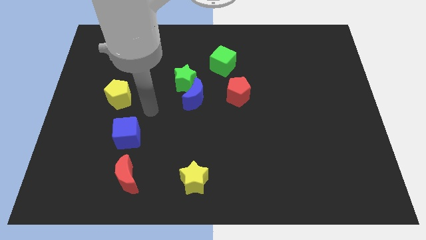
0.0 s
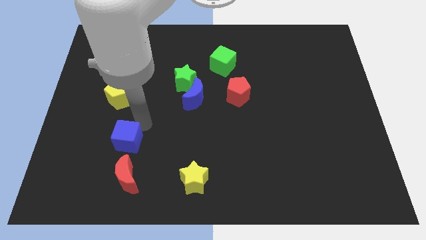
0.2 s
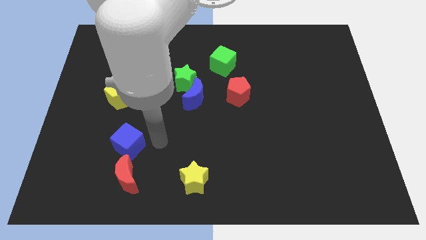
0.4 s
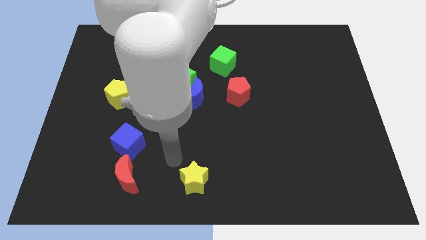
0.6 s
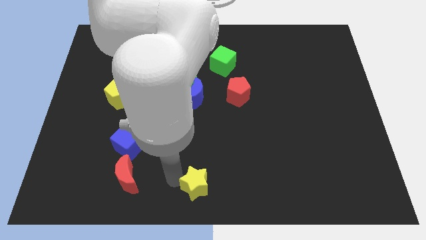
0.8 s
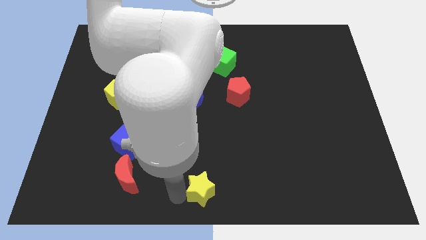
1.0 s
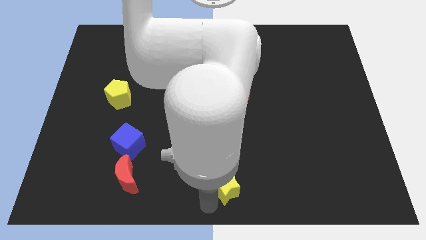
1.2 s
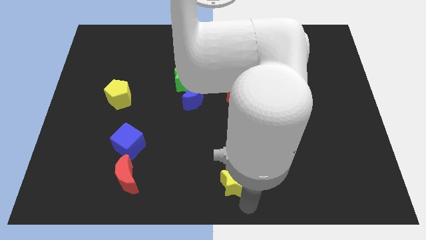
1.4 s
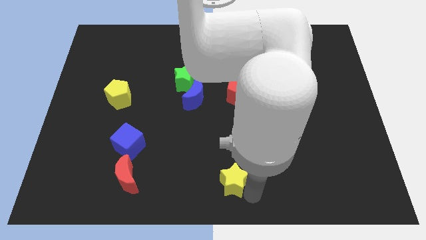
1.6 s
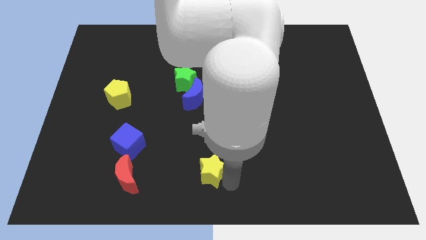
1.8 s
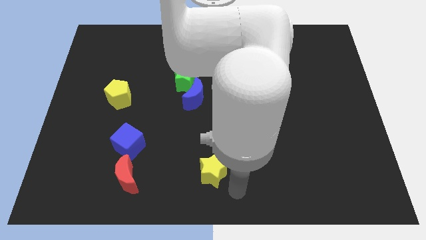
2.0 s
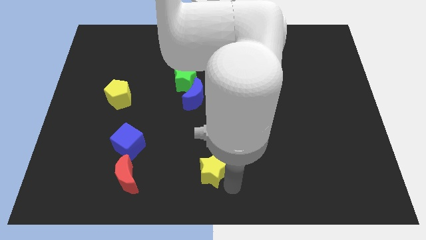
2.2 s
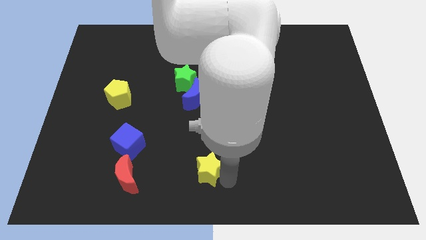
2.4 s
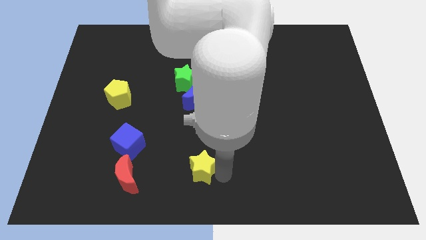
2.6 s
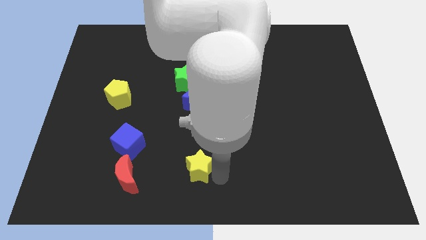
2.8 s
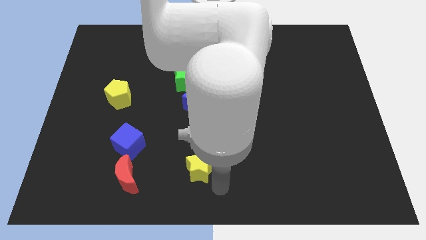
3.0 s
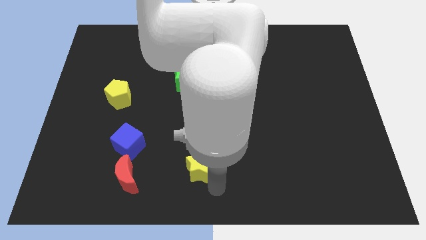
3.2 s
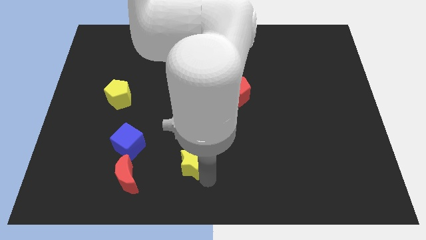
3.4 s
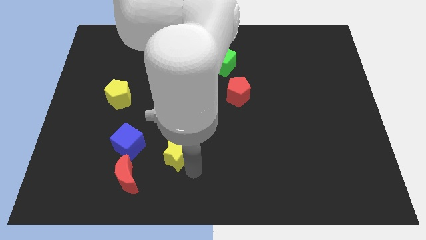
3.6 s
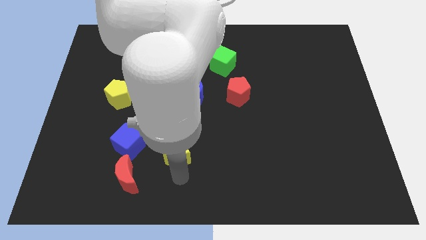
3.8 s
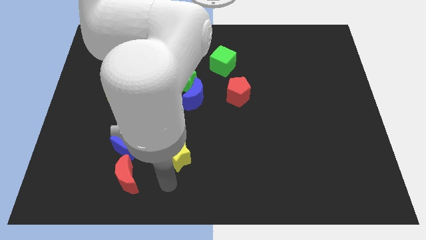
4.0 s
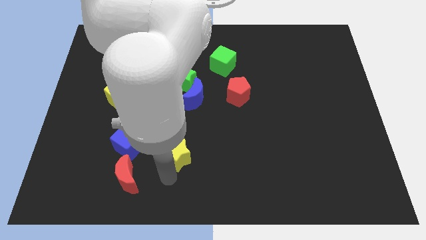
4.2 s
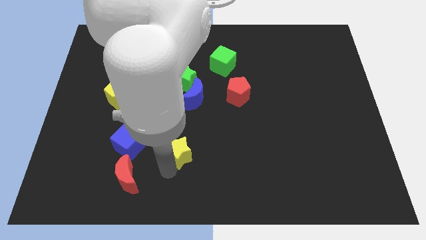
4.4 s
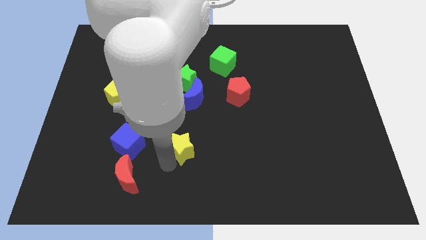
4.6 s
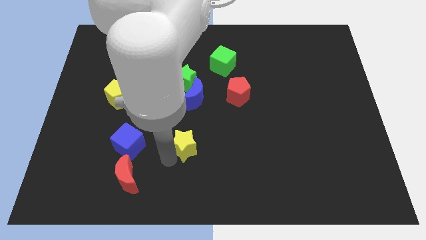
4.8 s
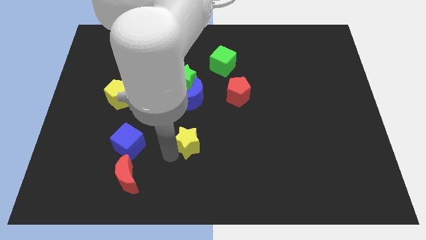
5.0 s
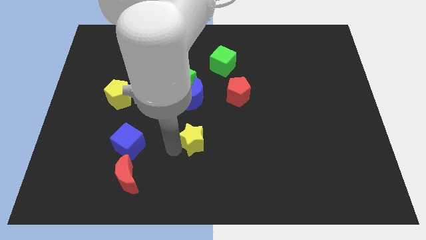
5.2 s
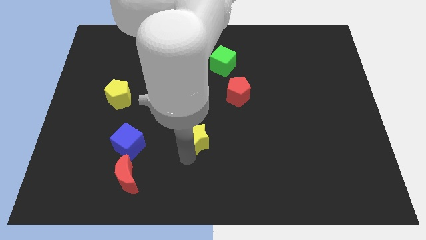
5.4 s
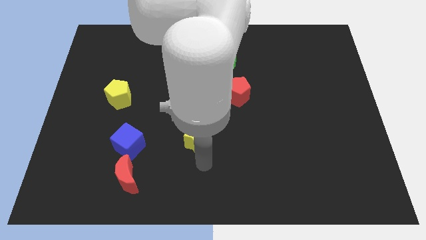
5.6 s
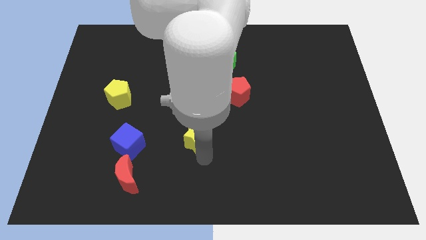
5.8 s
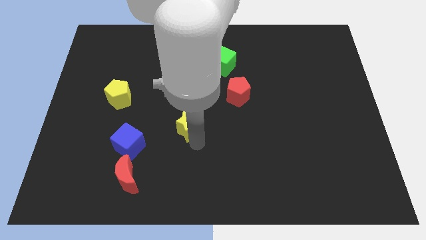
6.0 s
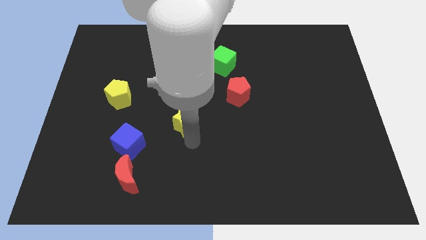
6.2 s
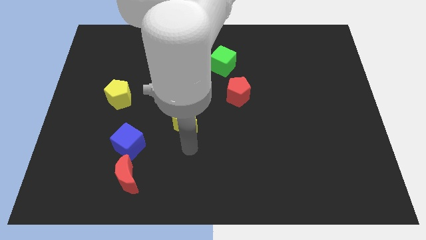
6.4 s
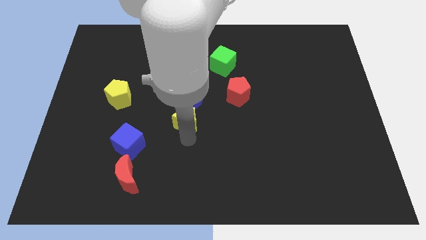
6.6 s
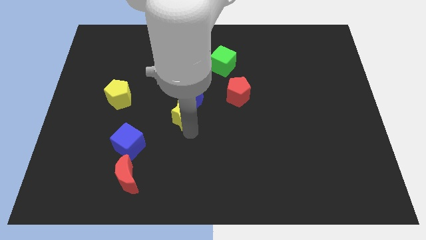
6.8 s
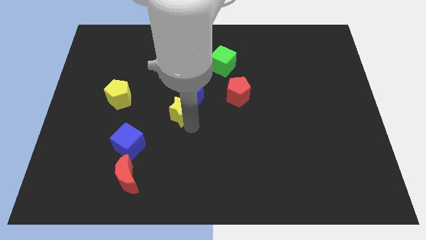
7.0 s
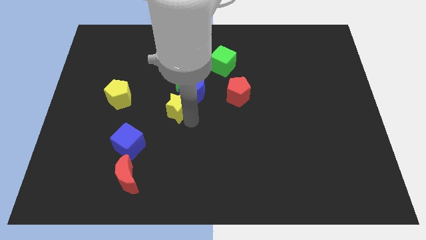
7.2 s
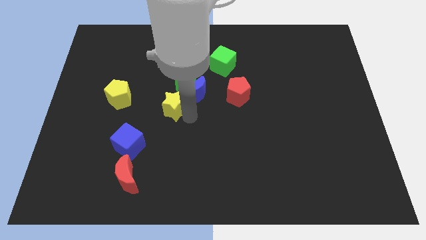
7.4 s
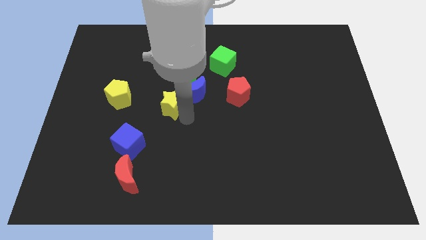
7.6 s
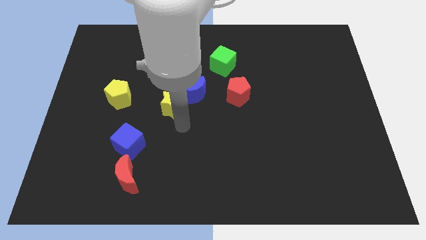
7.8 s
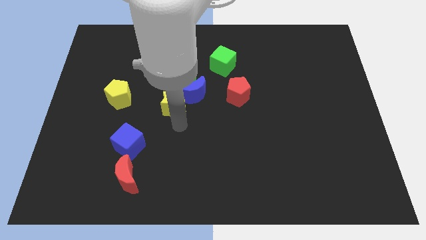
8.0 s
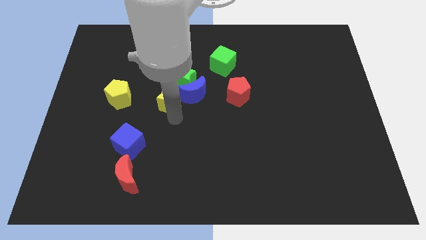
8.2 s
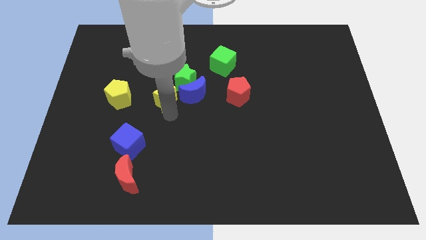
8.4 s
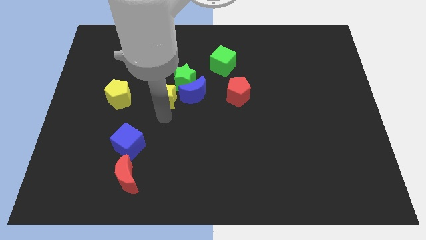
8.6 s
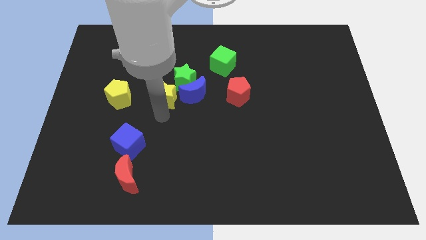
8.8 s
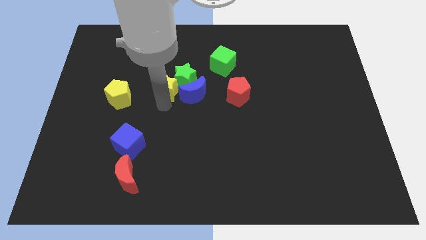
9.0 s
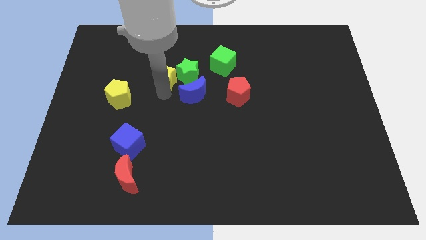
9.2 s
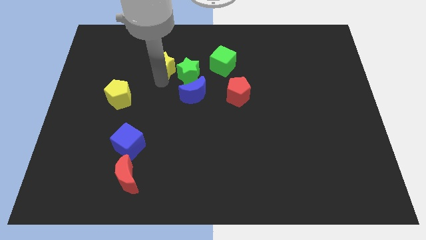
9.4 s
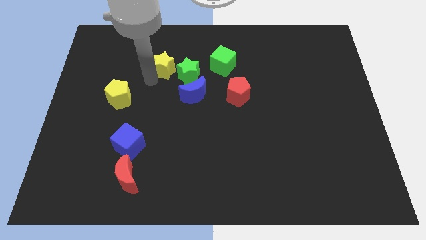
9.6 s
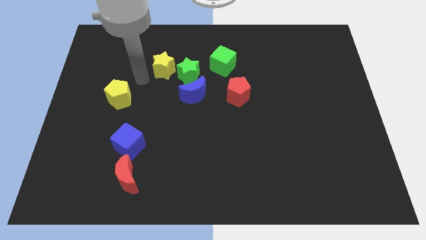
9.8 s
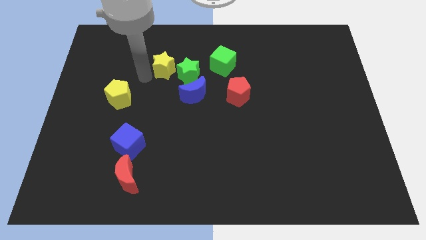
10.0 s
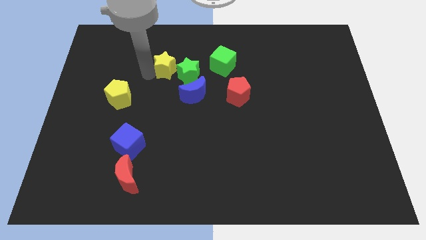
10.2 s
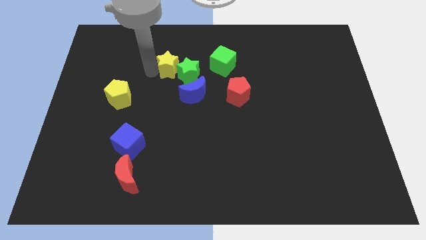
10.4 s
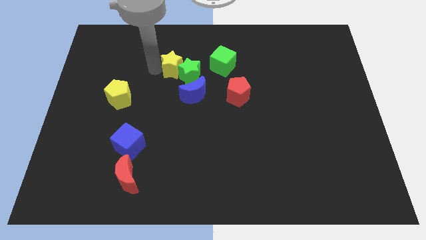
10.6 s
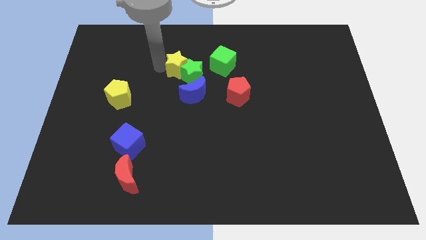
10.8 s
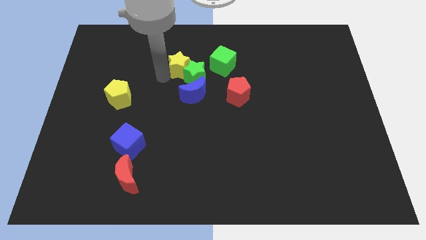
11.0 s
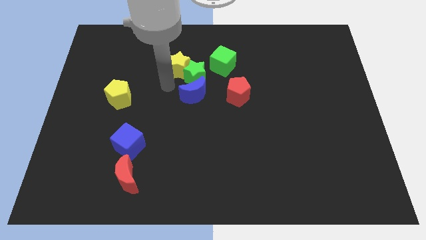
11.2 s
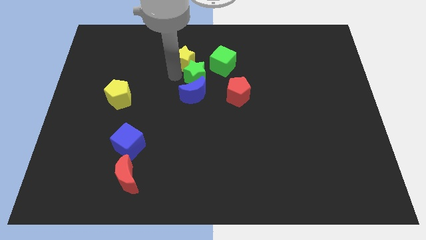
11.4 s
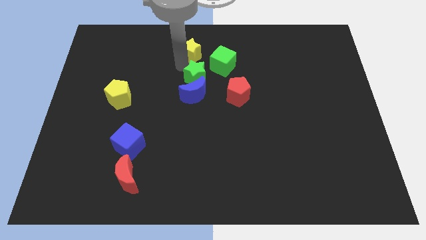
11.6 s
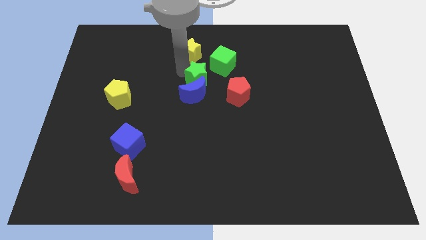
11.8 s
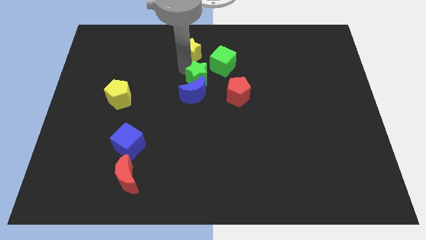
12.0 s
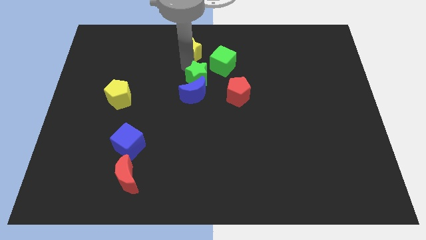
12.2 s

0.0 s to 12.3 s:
move the yellow star to the top side
